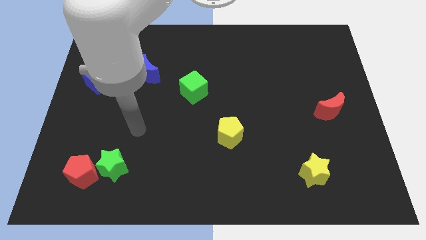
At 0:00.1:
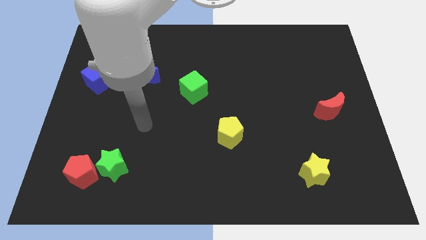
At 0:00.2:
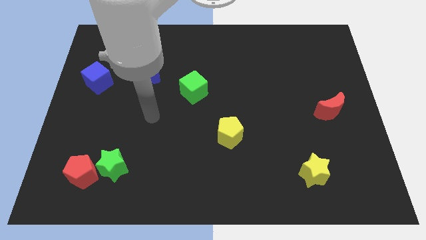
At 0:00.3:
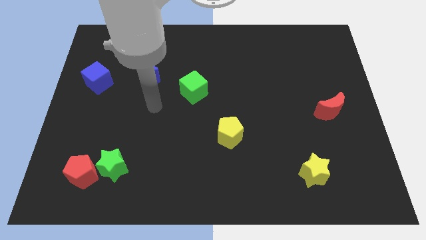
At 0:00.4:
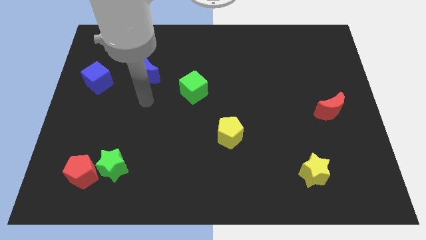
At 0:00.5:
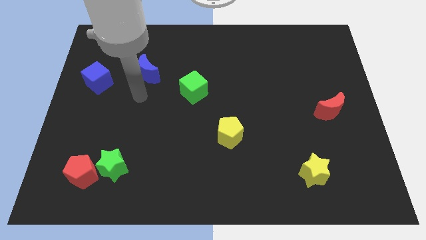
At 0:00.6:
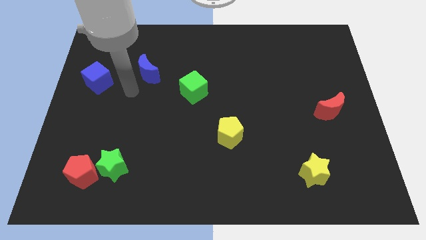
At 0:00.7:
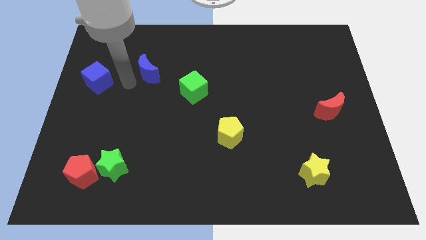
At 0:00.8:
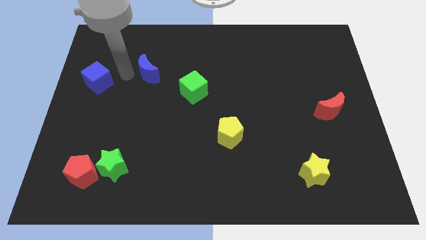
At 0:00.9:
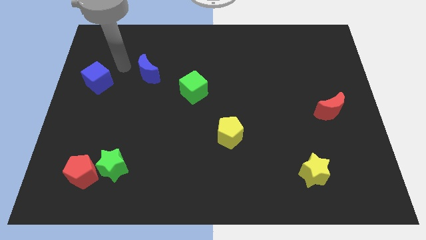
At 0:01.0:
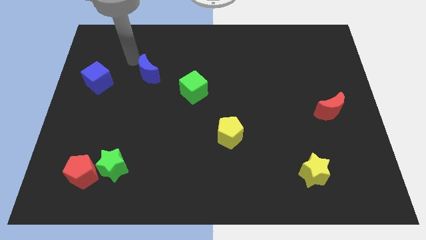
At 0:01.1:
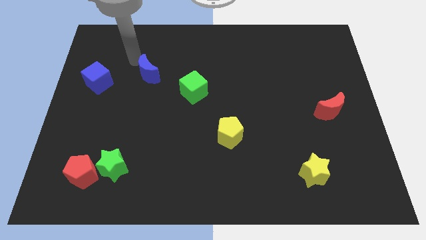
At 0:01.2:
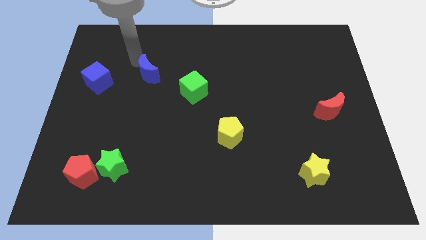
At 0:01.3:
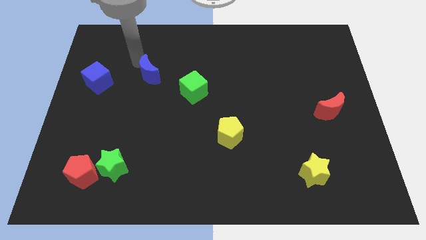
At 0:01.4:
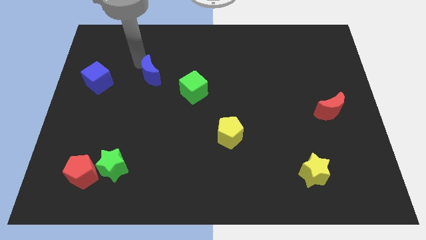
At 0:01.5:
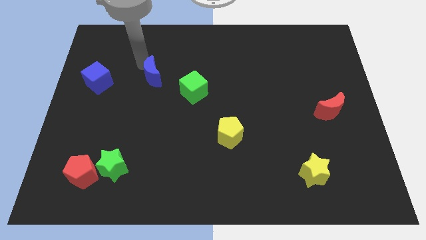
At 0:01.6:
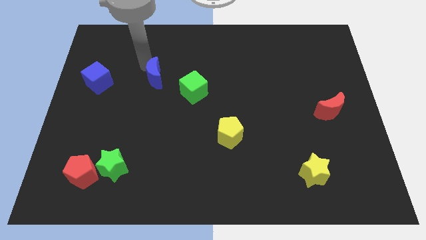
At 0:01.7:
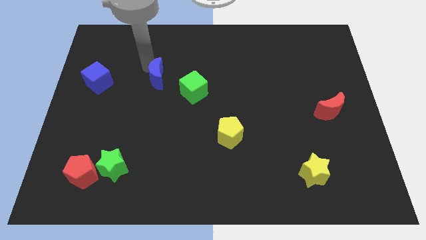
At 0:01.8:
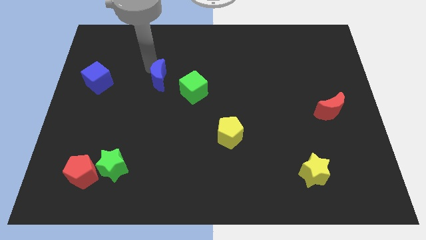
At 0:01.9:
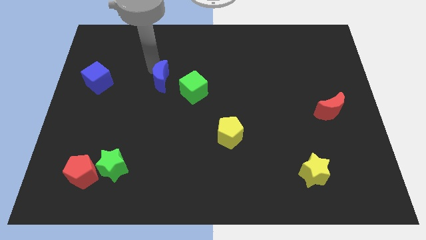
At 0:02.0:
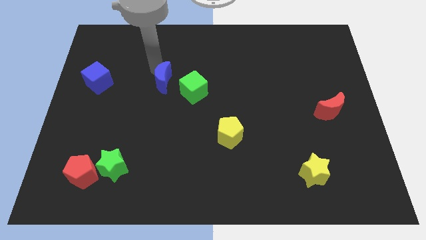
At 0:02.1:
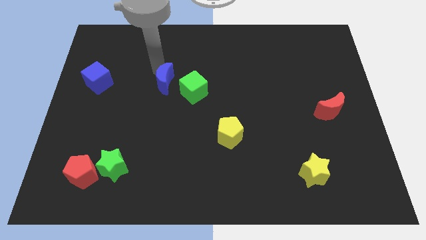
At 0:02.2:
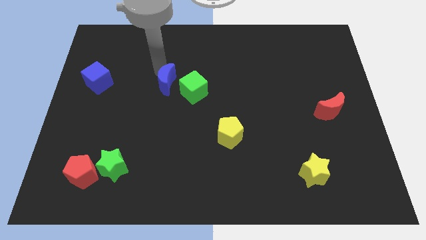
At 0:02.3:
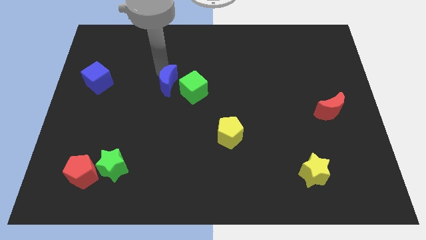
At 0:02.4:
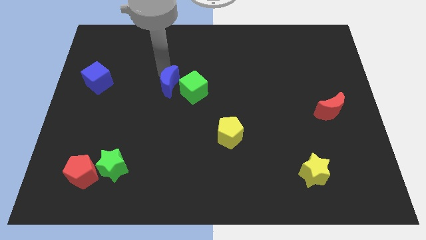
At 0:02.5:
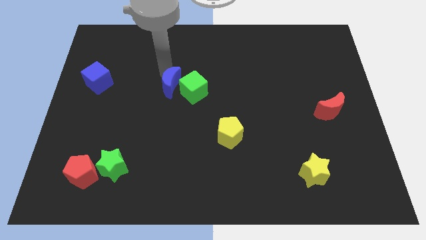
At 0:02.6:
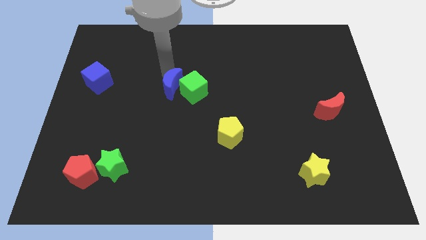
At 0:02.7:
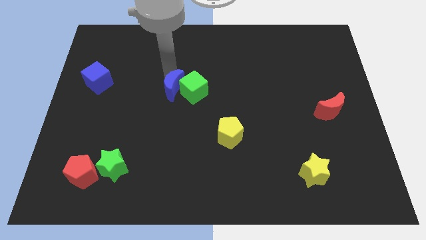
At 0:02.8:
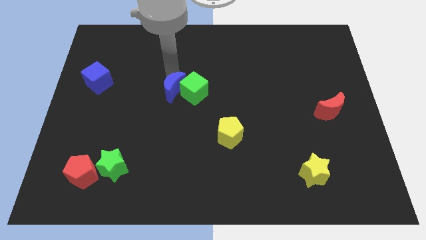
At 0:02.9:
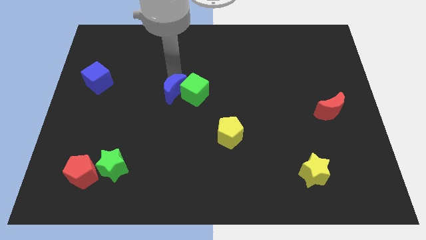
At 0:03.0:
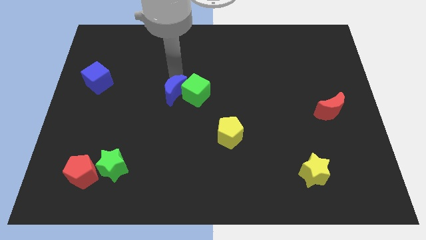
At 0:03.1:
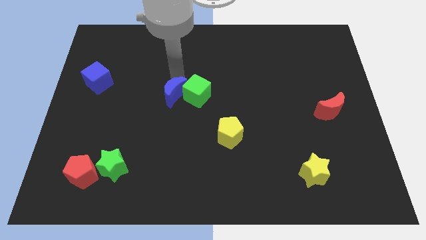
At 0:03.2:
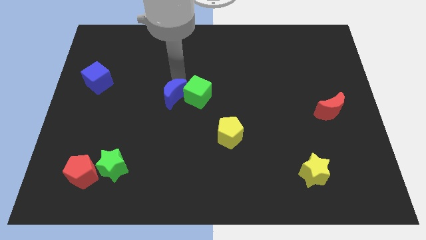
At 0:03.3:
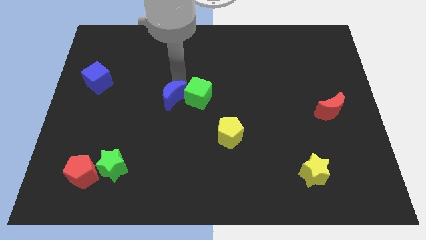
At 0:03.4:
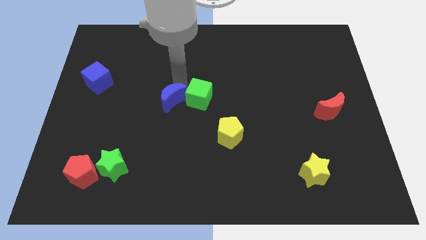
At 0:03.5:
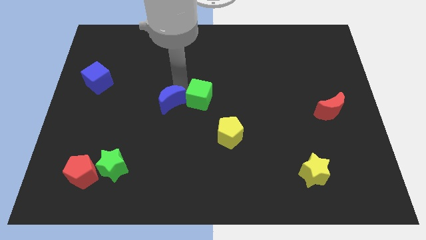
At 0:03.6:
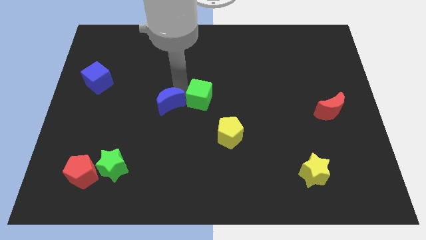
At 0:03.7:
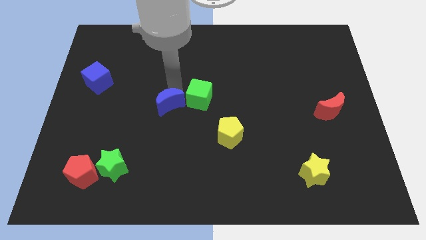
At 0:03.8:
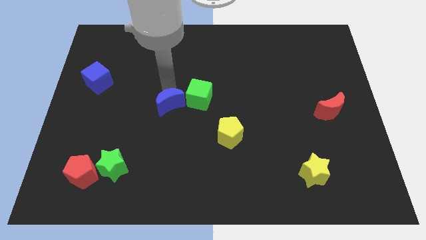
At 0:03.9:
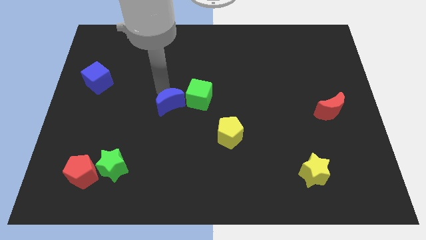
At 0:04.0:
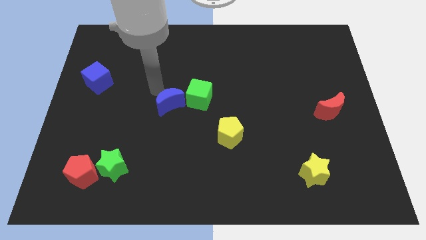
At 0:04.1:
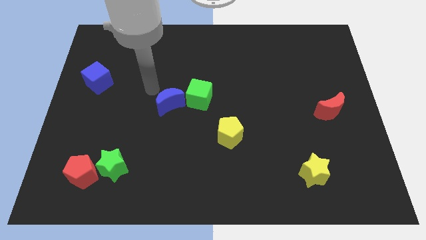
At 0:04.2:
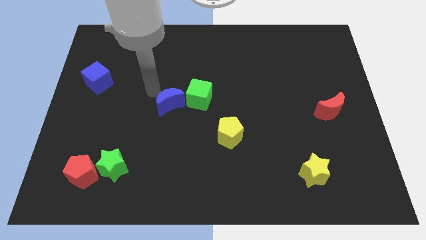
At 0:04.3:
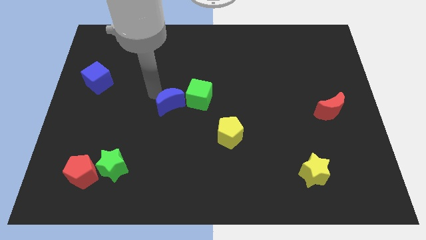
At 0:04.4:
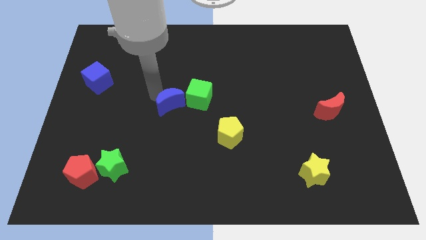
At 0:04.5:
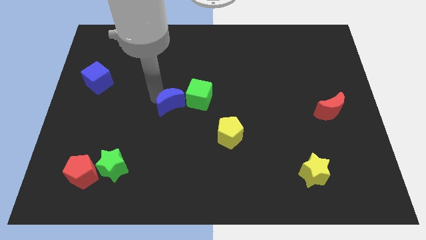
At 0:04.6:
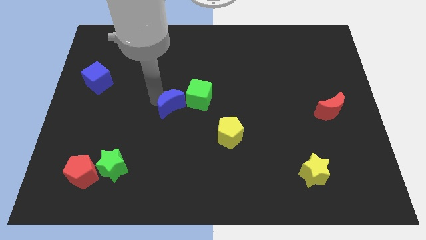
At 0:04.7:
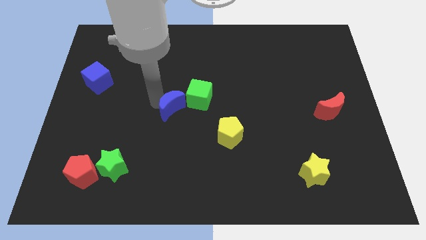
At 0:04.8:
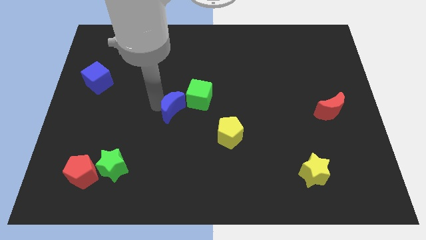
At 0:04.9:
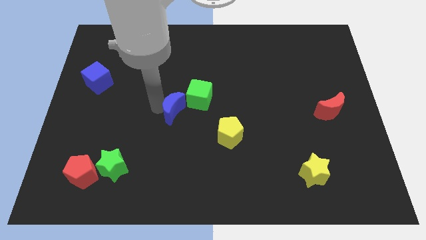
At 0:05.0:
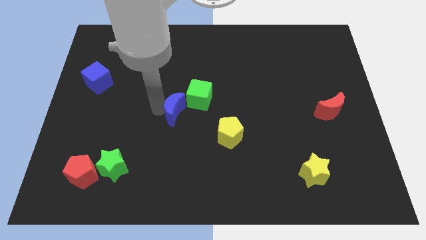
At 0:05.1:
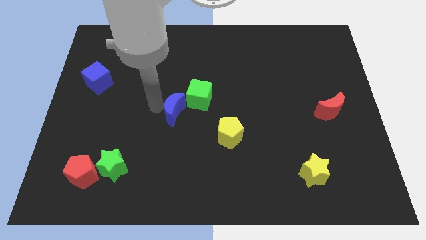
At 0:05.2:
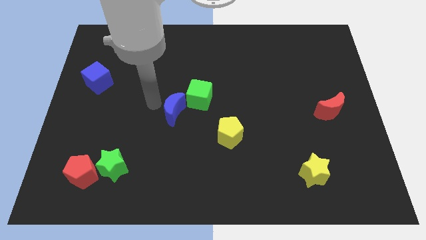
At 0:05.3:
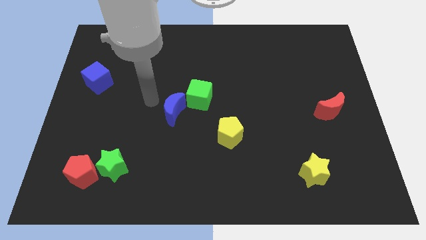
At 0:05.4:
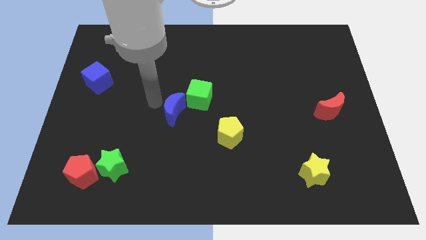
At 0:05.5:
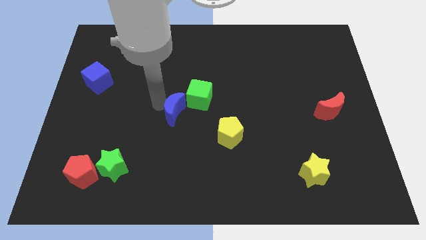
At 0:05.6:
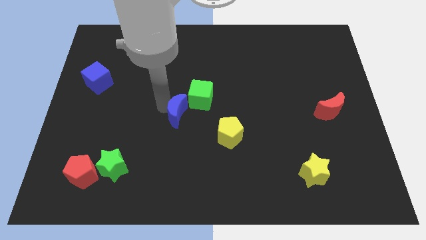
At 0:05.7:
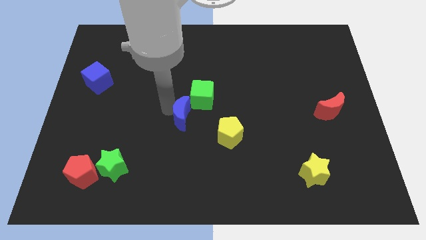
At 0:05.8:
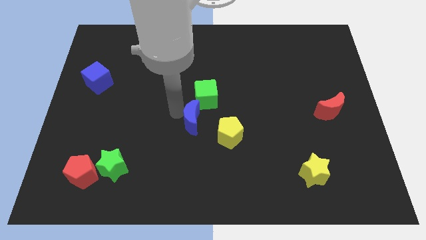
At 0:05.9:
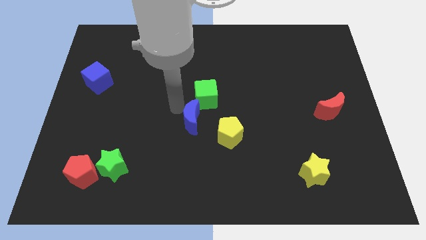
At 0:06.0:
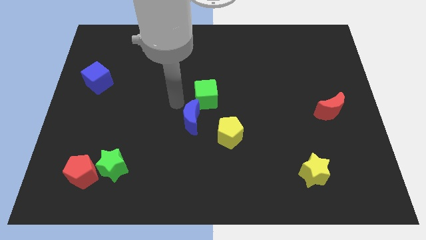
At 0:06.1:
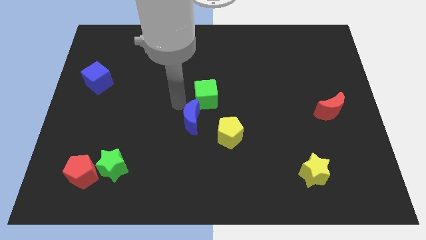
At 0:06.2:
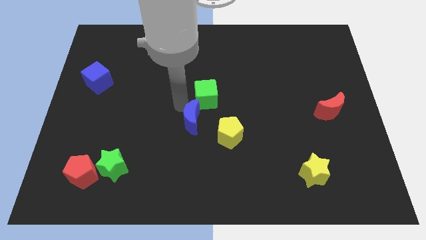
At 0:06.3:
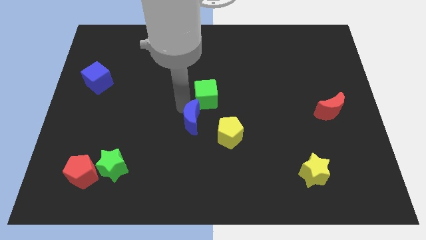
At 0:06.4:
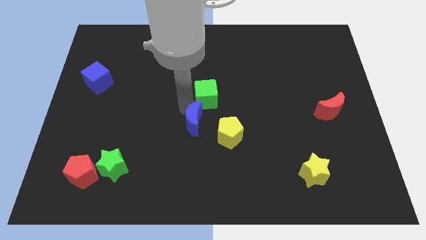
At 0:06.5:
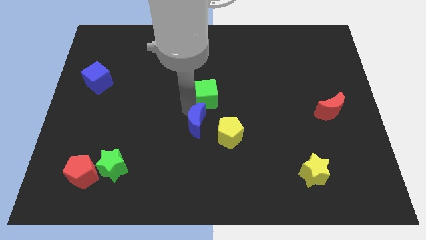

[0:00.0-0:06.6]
slide the blue moon diagonally downwards and to the right

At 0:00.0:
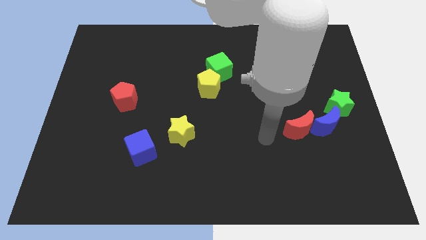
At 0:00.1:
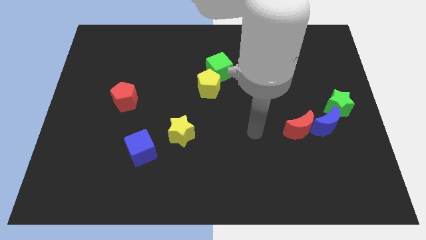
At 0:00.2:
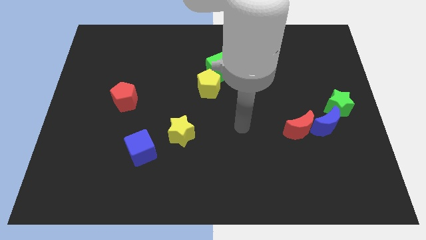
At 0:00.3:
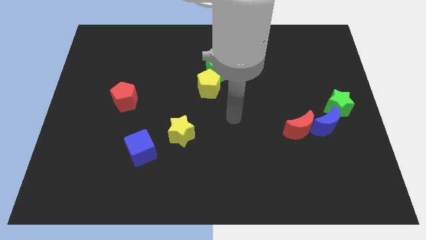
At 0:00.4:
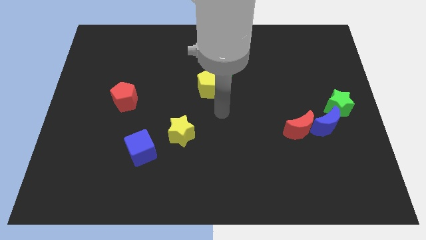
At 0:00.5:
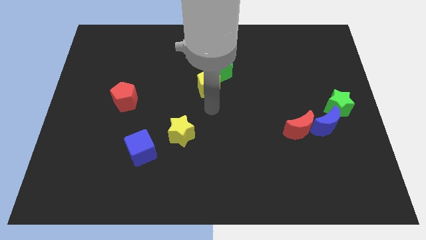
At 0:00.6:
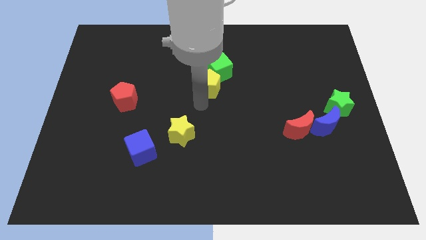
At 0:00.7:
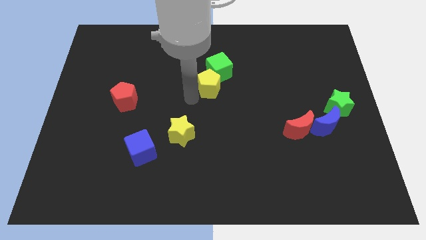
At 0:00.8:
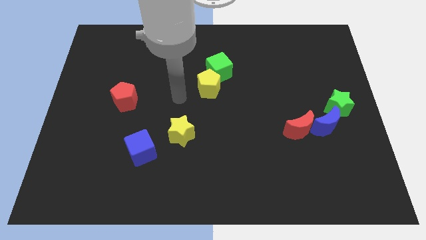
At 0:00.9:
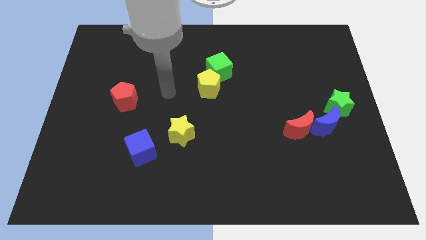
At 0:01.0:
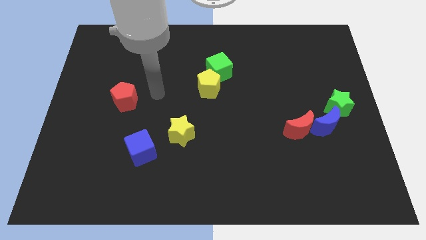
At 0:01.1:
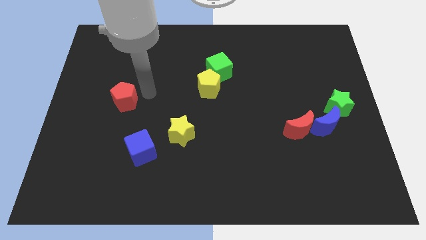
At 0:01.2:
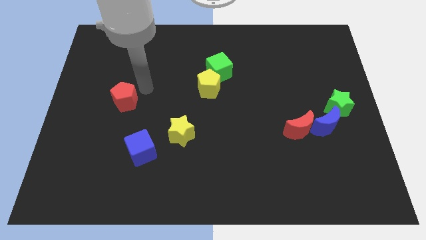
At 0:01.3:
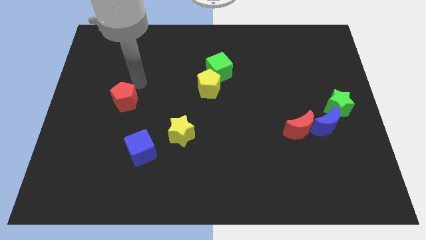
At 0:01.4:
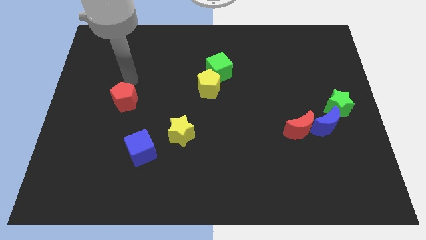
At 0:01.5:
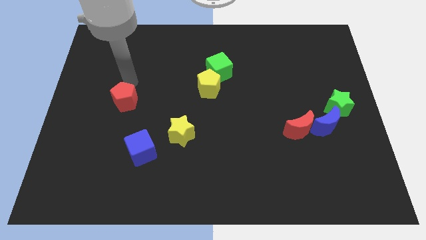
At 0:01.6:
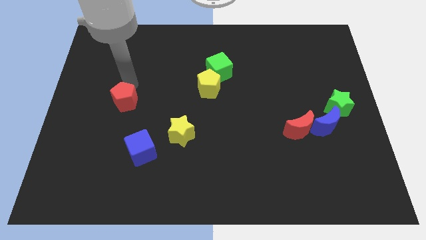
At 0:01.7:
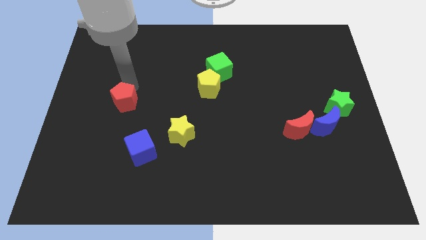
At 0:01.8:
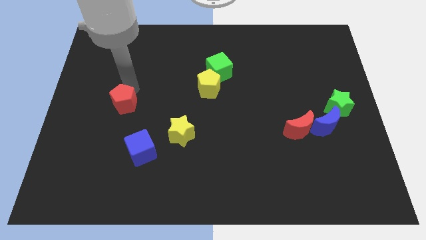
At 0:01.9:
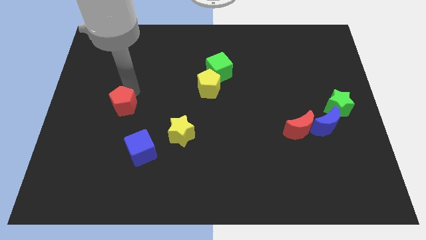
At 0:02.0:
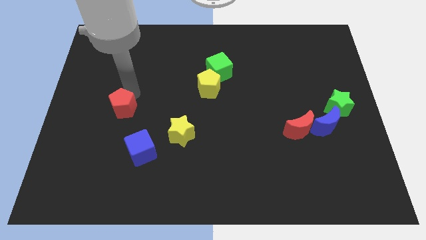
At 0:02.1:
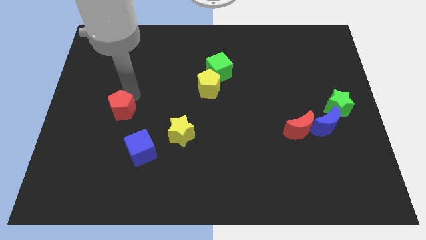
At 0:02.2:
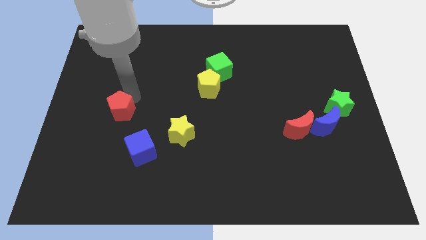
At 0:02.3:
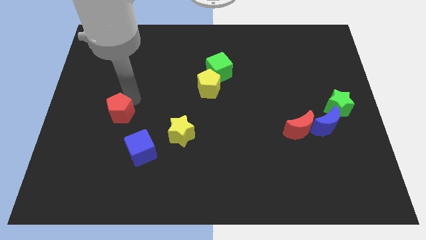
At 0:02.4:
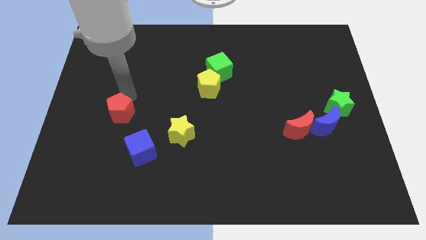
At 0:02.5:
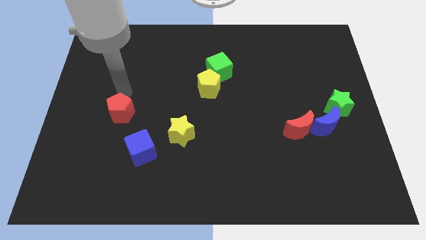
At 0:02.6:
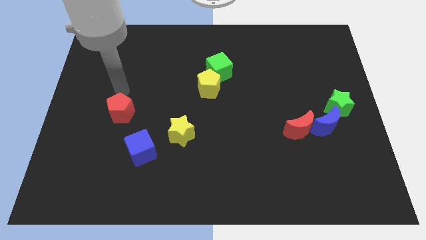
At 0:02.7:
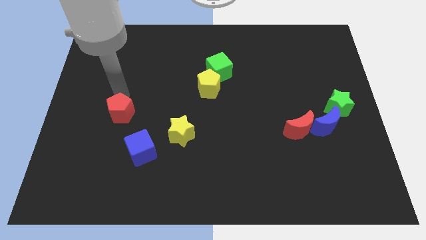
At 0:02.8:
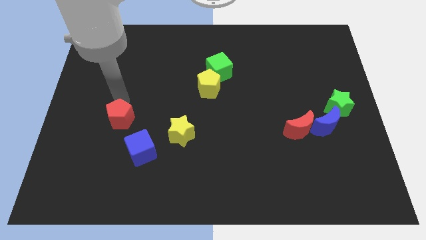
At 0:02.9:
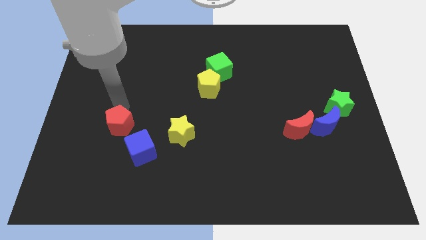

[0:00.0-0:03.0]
slightly push the red pentagon downwards
